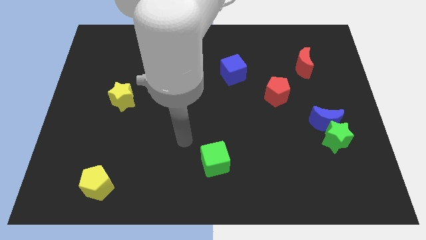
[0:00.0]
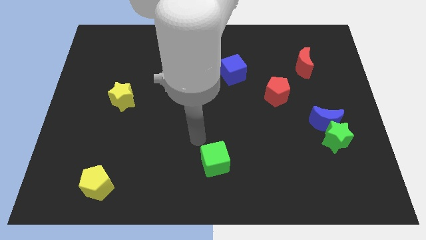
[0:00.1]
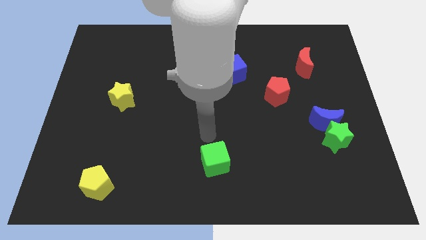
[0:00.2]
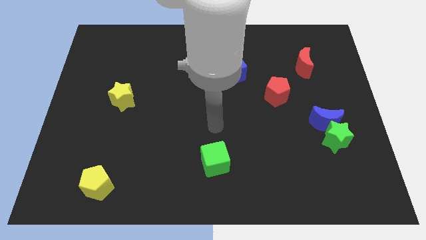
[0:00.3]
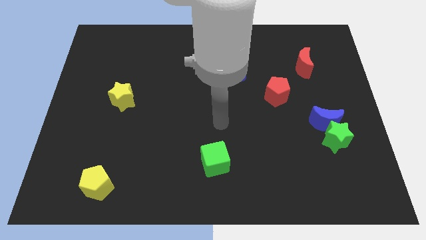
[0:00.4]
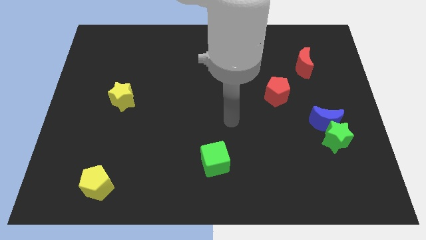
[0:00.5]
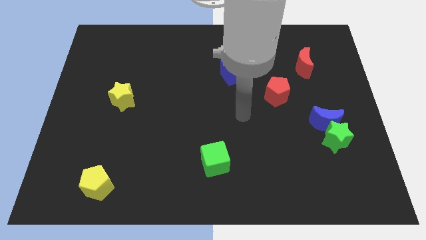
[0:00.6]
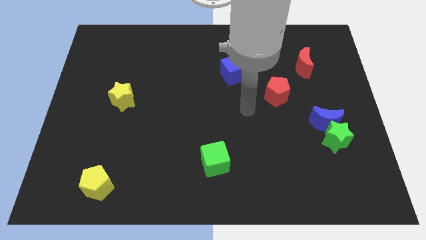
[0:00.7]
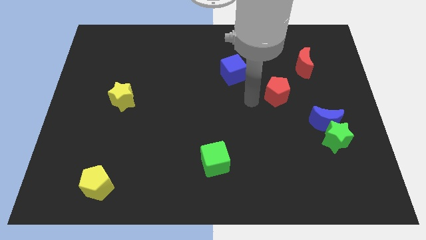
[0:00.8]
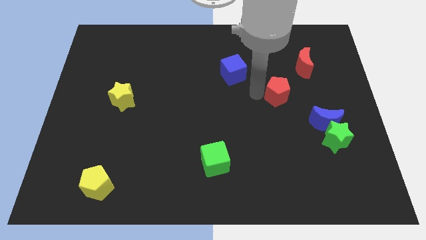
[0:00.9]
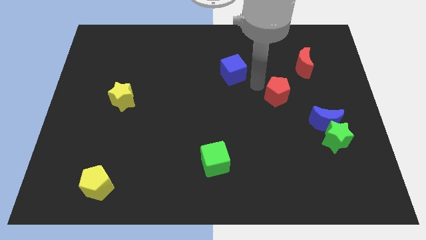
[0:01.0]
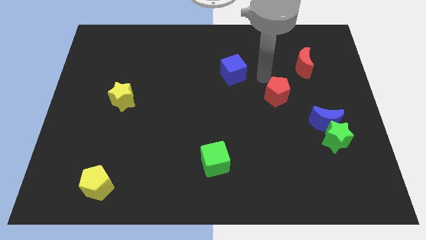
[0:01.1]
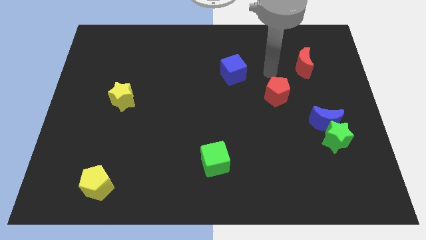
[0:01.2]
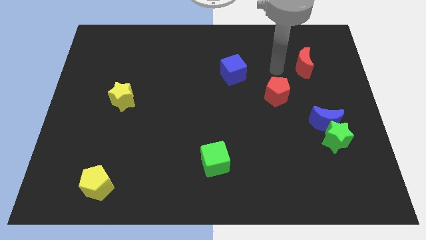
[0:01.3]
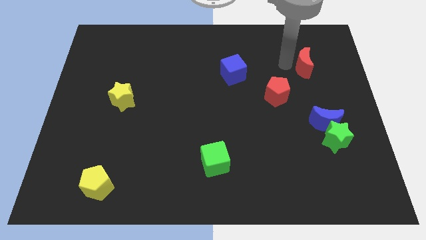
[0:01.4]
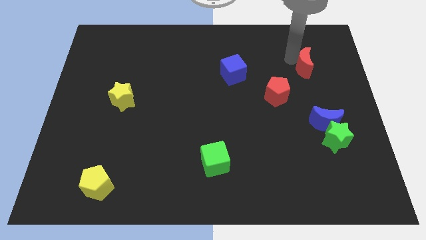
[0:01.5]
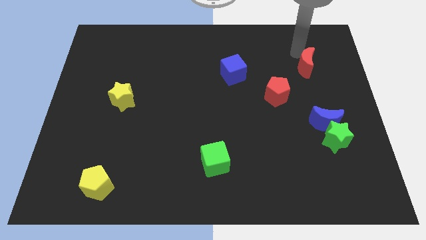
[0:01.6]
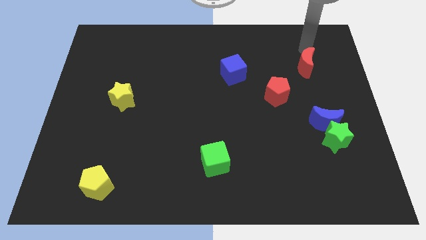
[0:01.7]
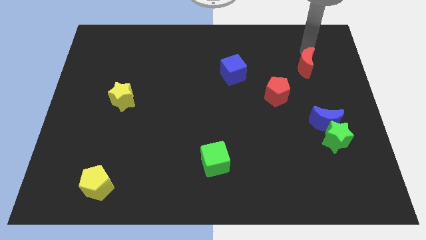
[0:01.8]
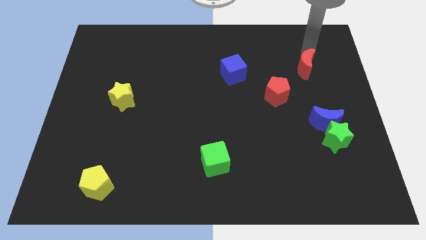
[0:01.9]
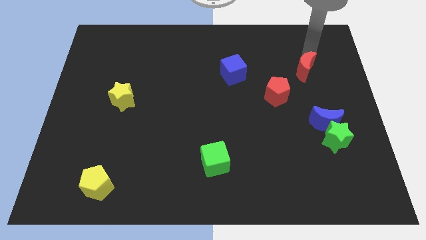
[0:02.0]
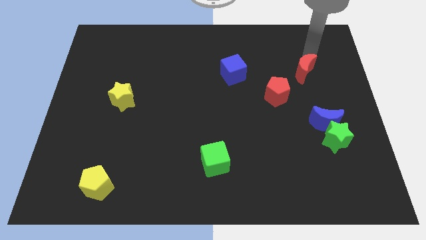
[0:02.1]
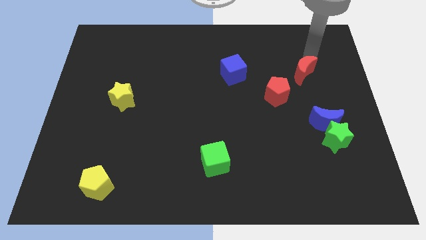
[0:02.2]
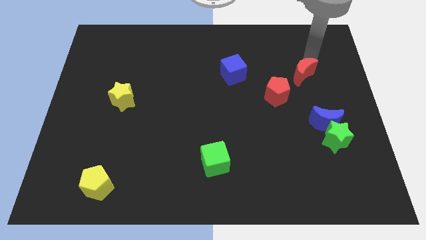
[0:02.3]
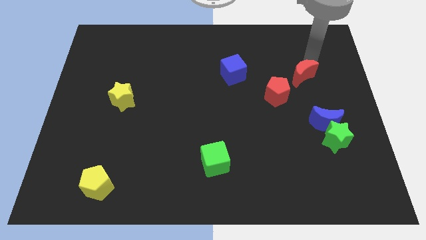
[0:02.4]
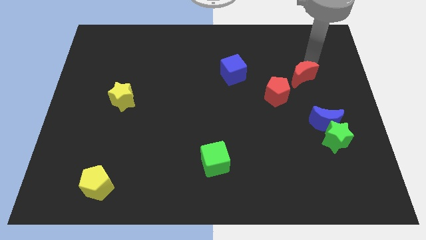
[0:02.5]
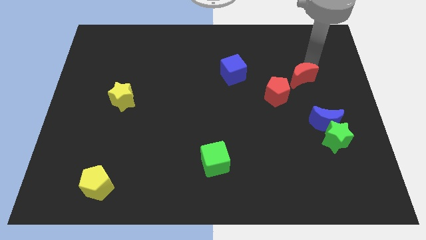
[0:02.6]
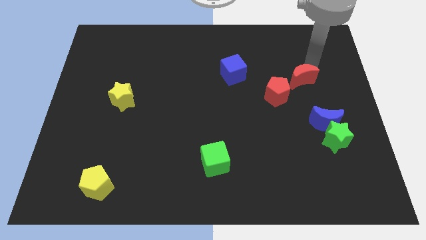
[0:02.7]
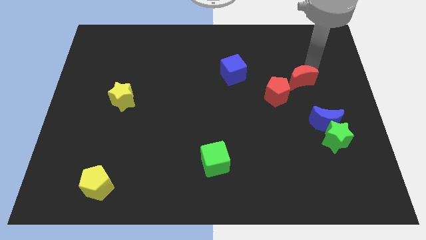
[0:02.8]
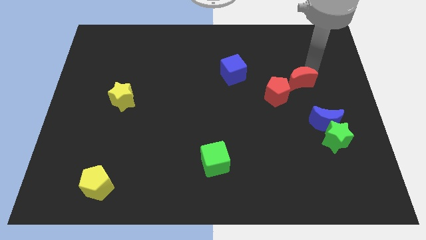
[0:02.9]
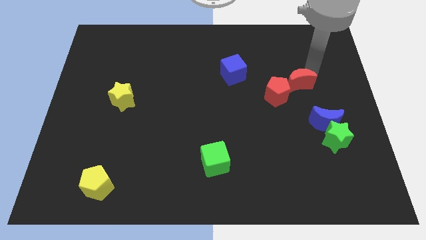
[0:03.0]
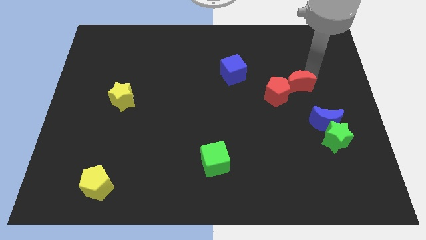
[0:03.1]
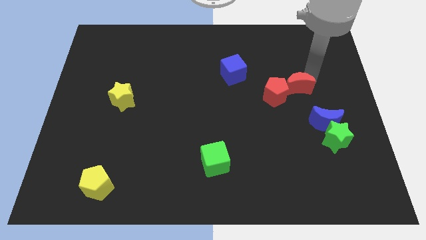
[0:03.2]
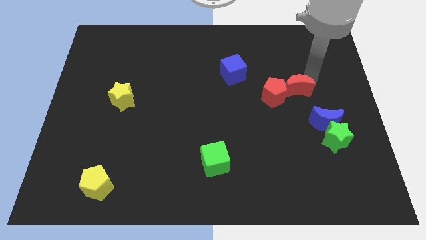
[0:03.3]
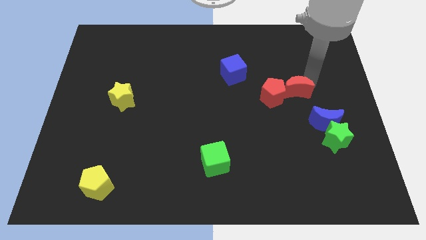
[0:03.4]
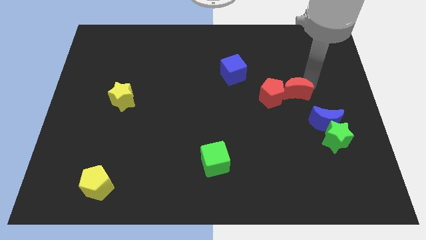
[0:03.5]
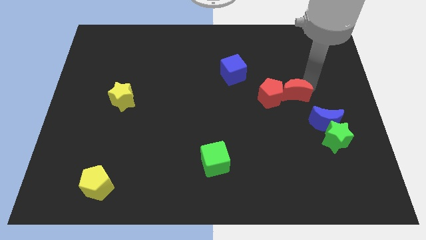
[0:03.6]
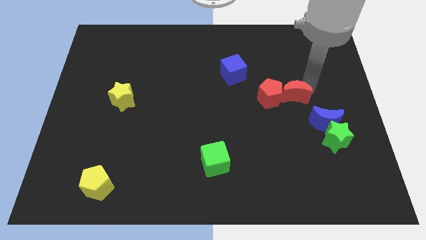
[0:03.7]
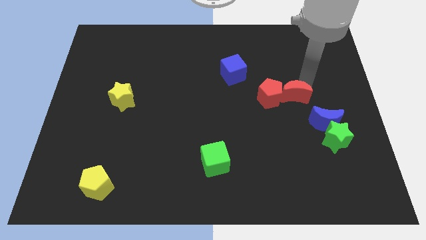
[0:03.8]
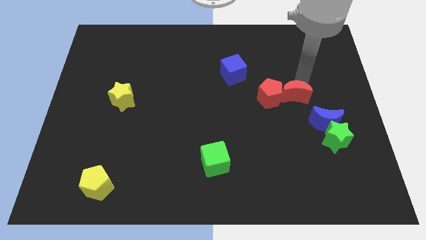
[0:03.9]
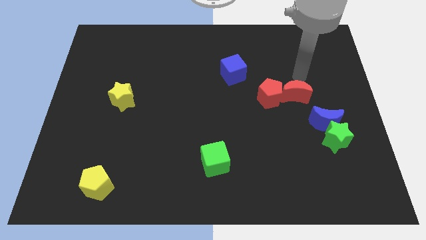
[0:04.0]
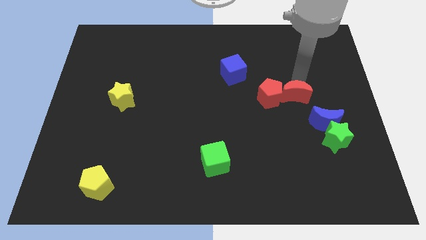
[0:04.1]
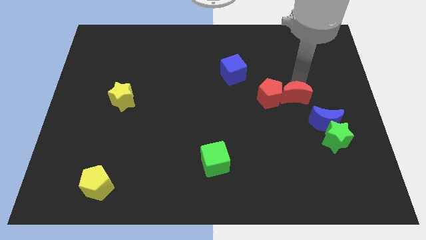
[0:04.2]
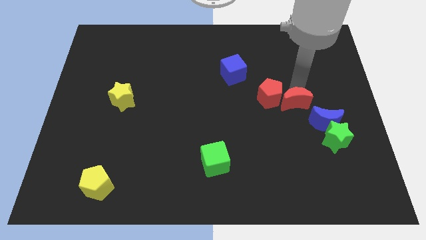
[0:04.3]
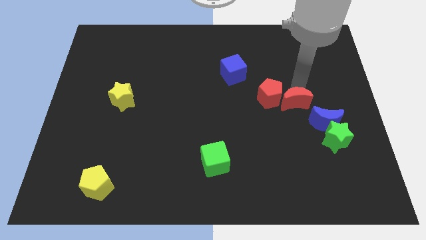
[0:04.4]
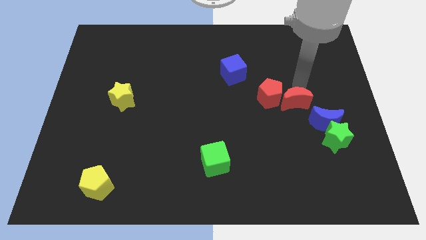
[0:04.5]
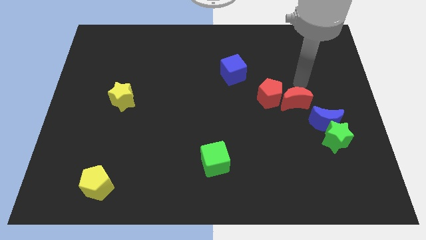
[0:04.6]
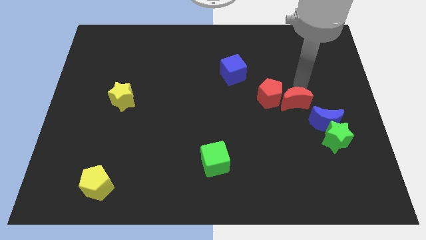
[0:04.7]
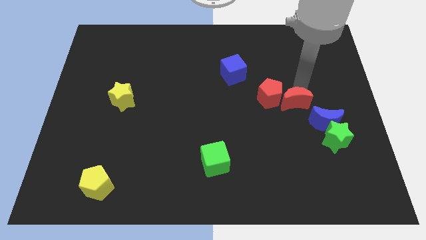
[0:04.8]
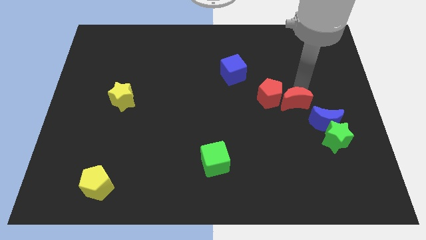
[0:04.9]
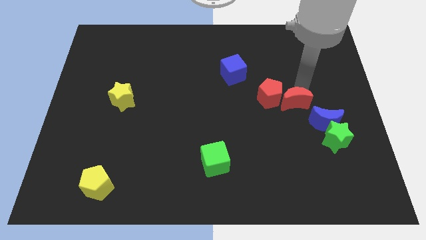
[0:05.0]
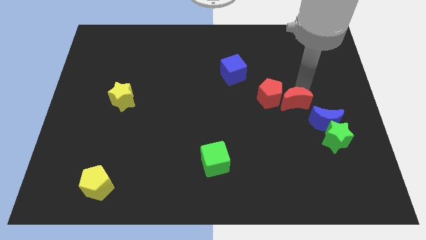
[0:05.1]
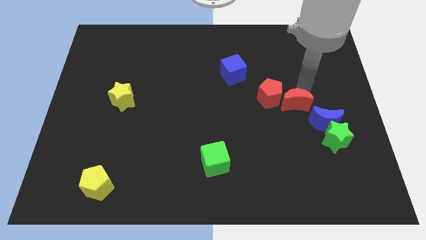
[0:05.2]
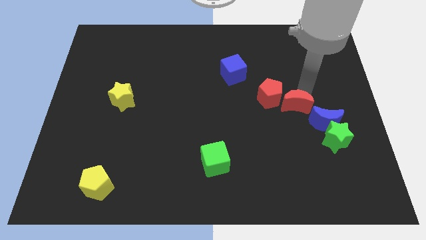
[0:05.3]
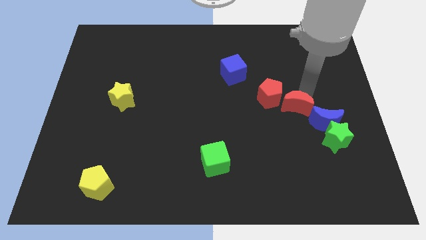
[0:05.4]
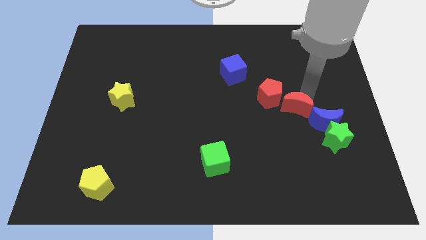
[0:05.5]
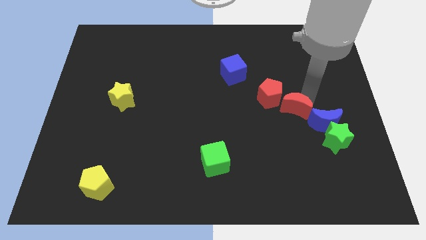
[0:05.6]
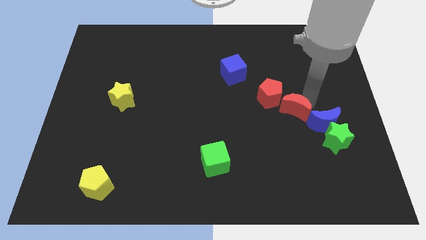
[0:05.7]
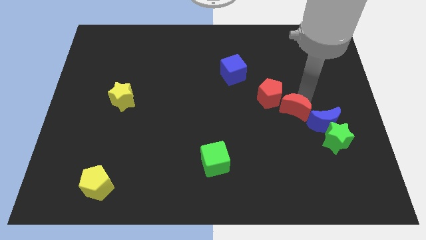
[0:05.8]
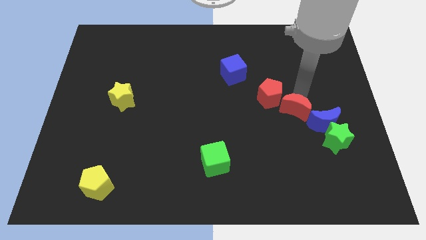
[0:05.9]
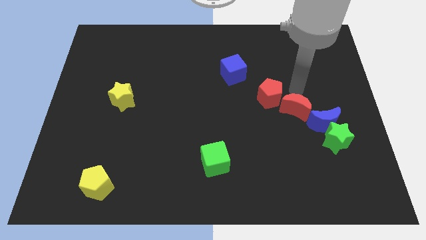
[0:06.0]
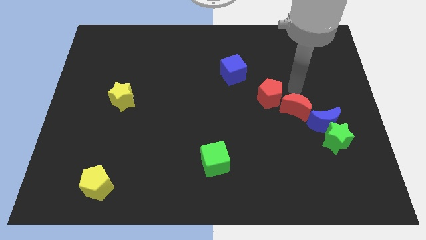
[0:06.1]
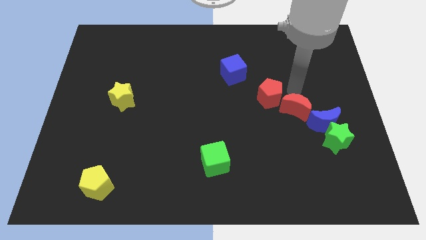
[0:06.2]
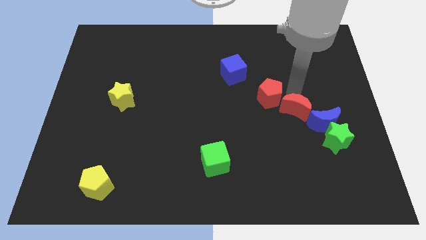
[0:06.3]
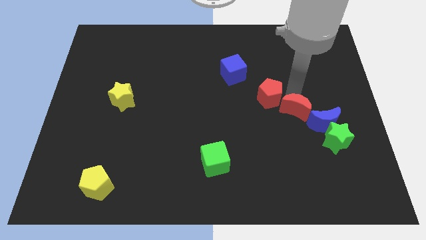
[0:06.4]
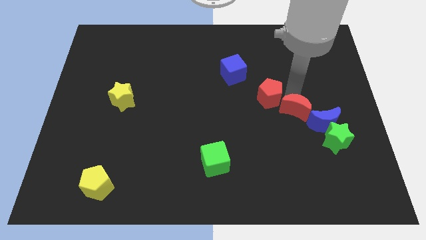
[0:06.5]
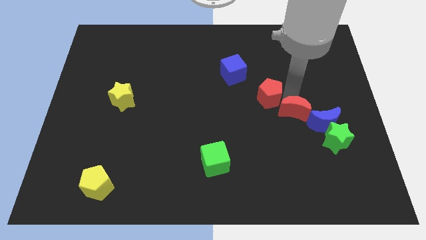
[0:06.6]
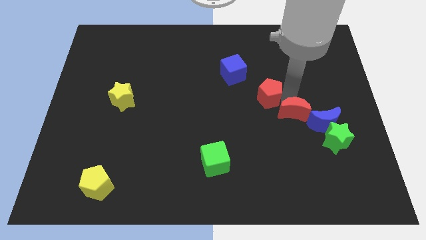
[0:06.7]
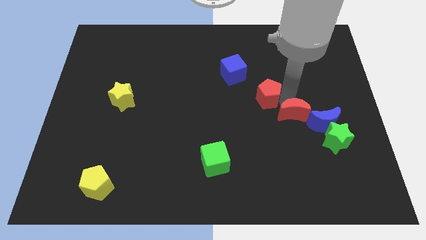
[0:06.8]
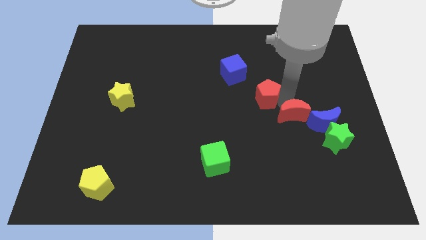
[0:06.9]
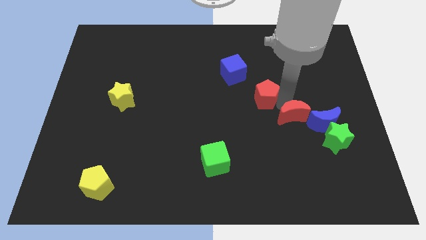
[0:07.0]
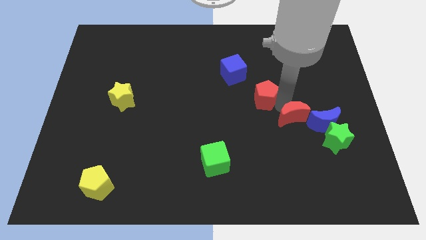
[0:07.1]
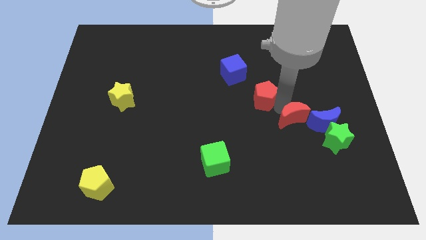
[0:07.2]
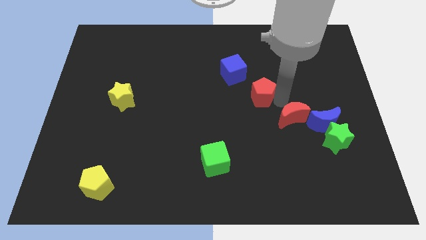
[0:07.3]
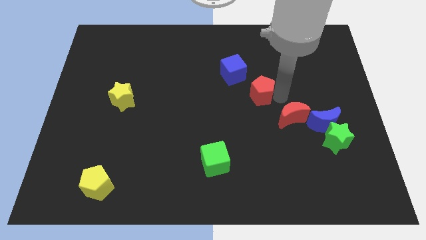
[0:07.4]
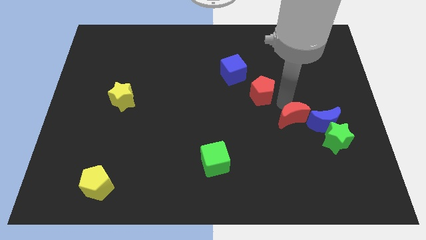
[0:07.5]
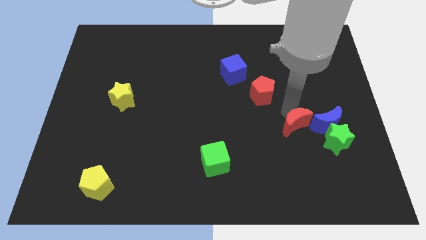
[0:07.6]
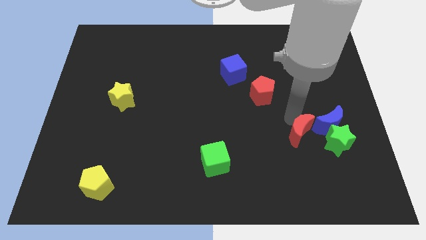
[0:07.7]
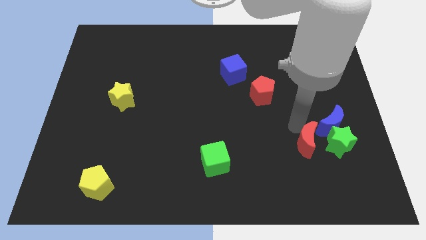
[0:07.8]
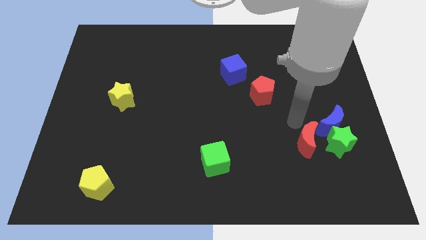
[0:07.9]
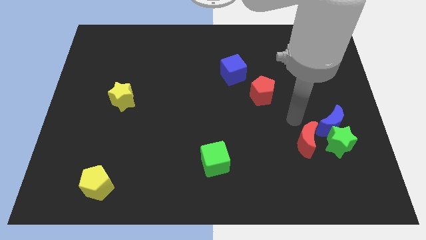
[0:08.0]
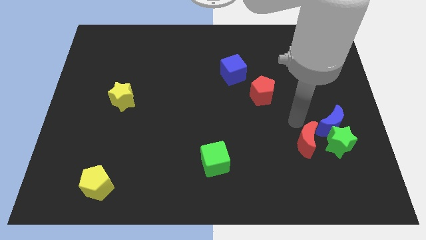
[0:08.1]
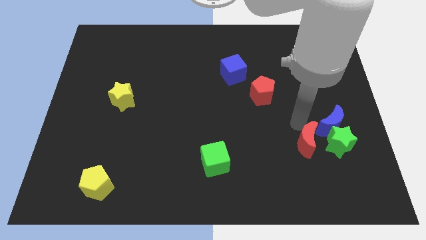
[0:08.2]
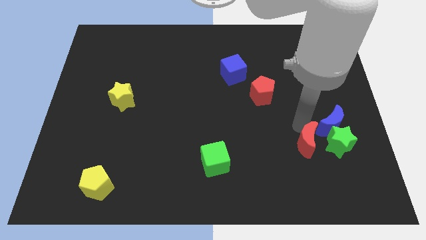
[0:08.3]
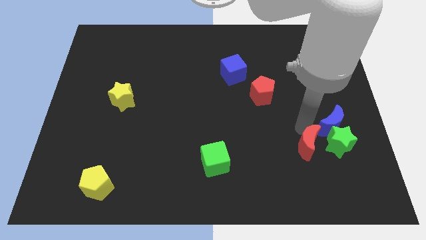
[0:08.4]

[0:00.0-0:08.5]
slide the red moon diagonally down and to the left of the green star
